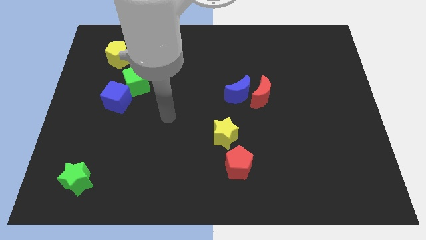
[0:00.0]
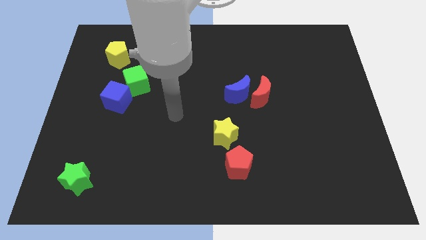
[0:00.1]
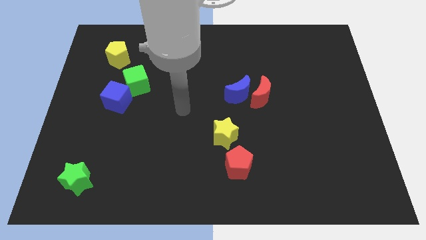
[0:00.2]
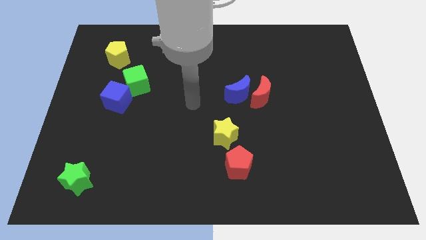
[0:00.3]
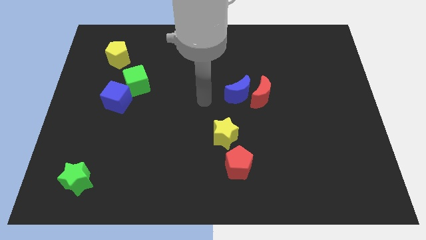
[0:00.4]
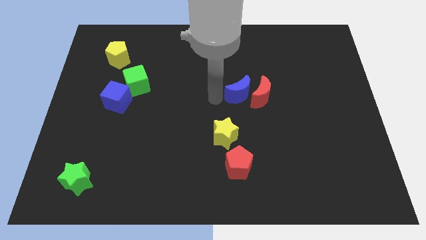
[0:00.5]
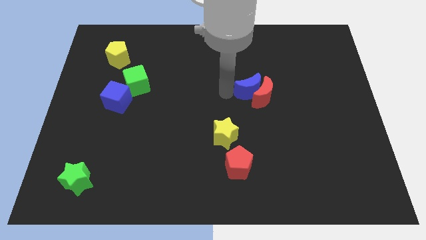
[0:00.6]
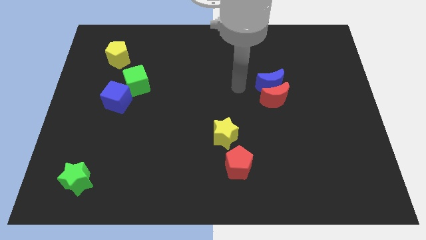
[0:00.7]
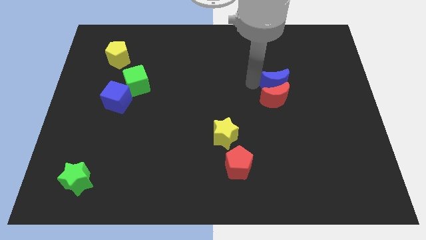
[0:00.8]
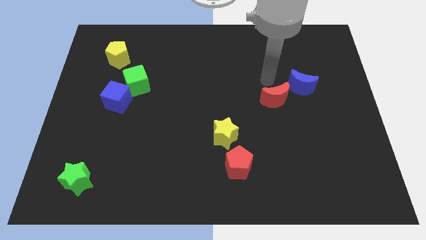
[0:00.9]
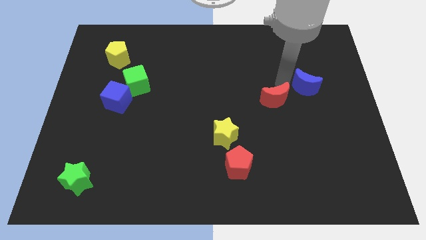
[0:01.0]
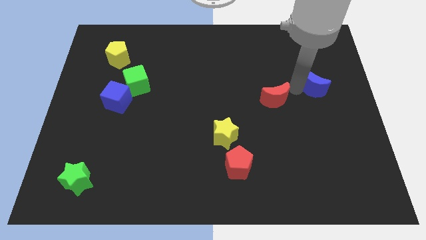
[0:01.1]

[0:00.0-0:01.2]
move the red moon away from the blue moon

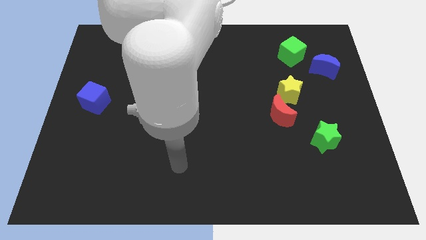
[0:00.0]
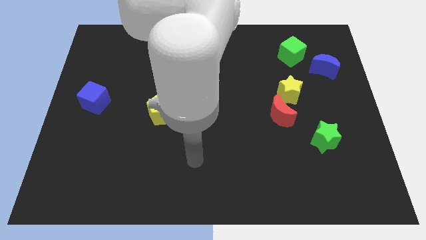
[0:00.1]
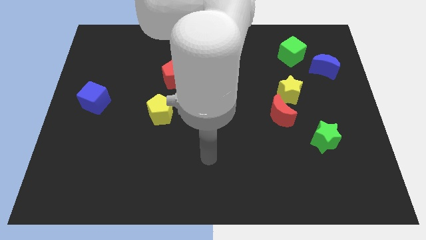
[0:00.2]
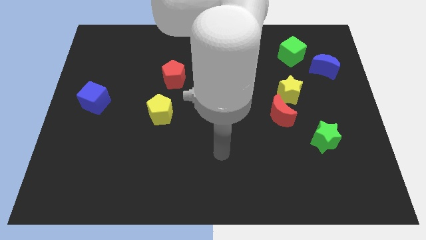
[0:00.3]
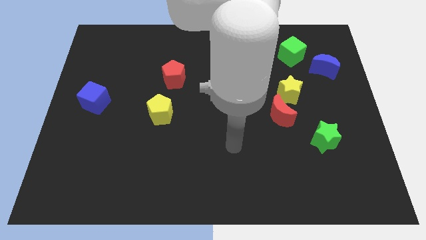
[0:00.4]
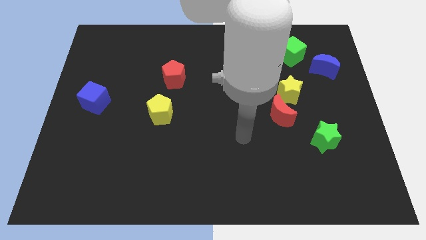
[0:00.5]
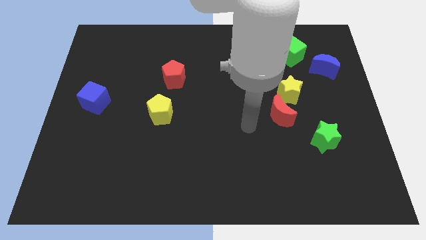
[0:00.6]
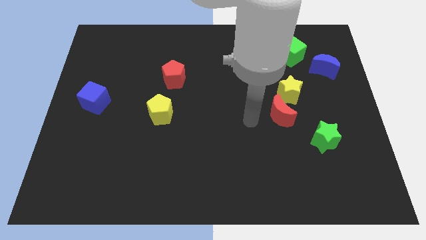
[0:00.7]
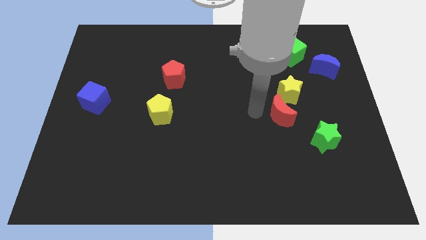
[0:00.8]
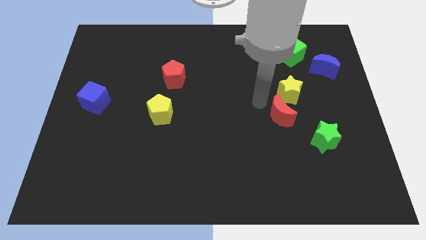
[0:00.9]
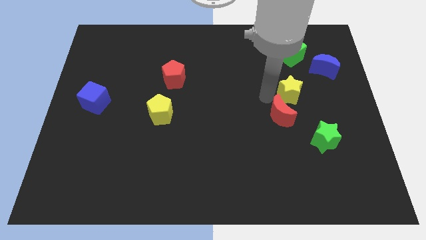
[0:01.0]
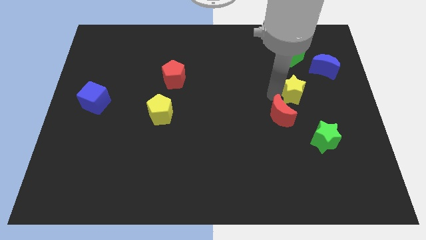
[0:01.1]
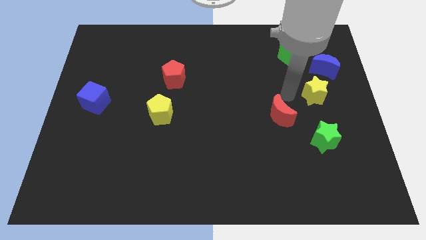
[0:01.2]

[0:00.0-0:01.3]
separate the red moon from the yellow star

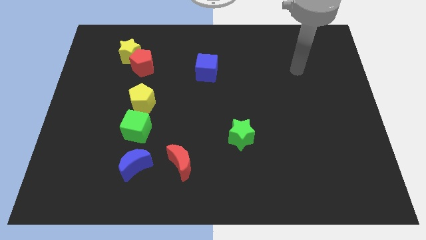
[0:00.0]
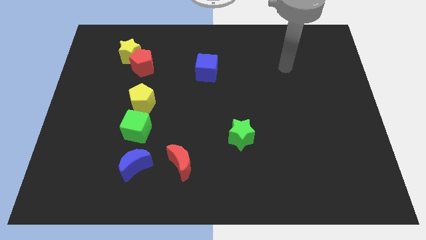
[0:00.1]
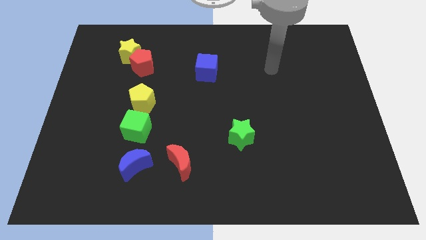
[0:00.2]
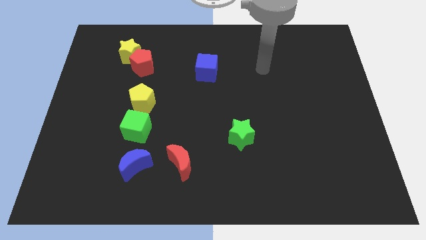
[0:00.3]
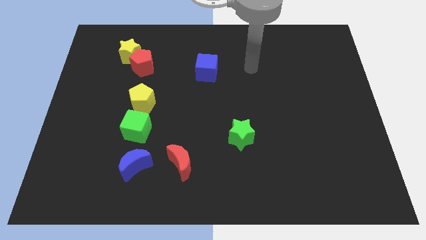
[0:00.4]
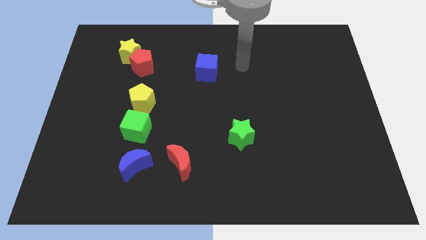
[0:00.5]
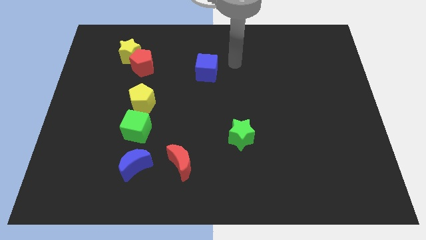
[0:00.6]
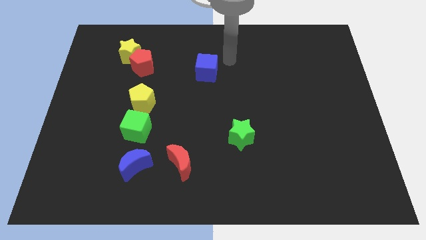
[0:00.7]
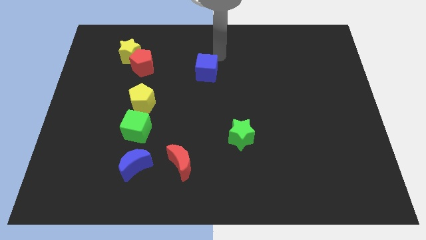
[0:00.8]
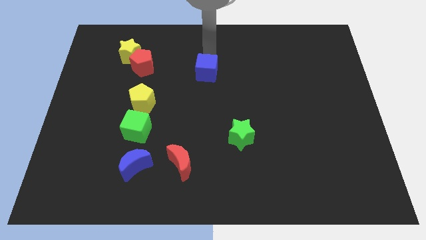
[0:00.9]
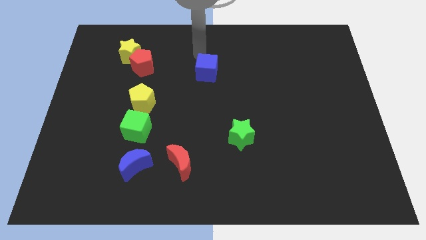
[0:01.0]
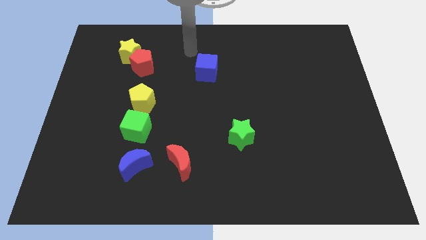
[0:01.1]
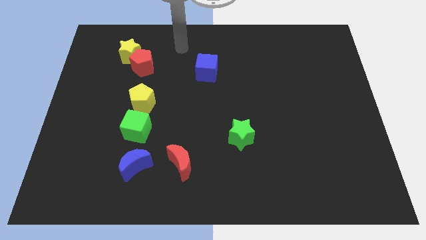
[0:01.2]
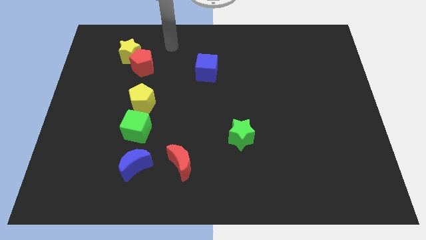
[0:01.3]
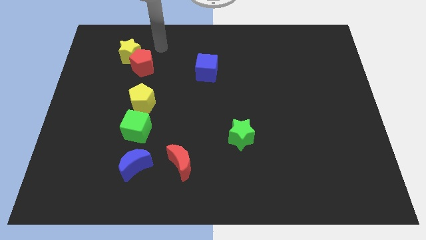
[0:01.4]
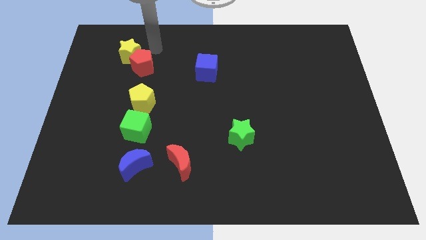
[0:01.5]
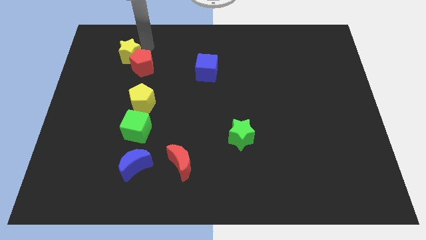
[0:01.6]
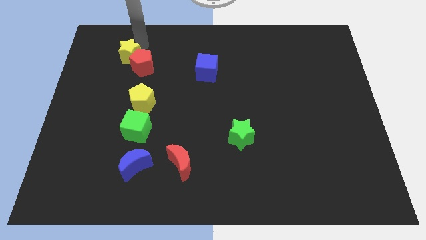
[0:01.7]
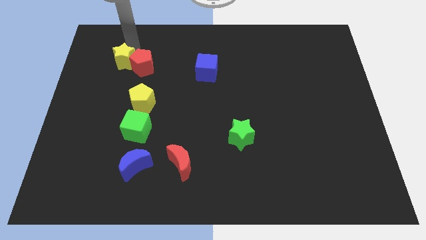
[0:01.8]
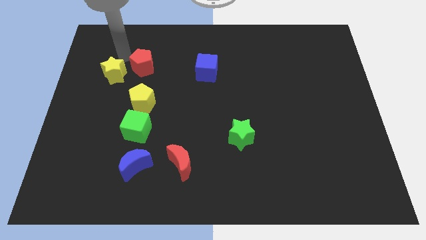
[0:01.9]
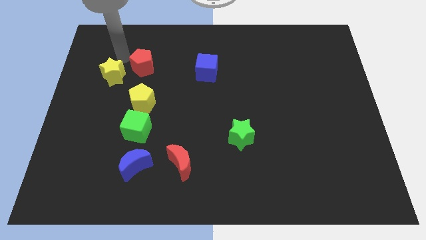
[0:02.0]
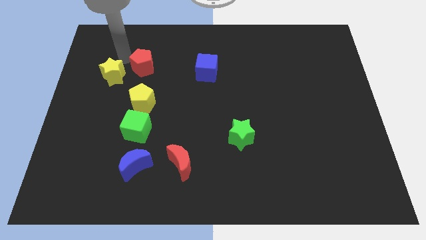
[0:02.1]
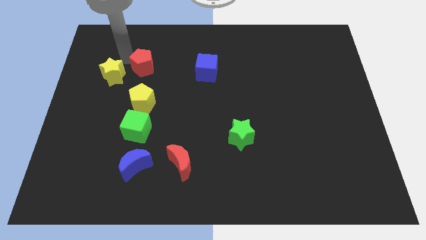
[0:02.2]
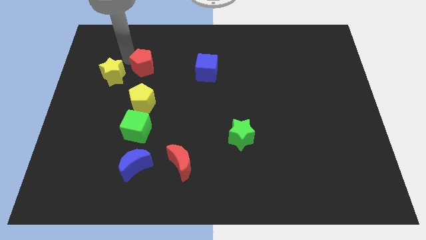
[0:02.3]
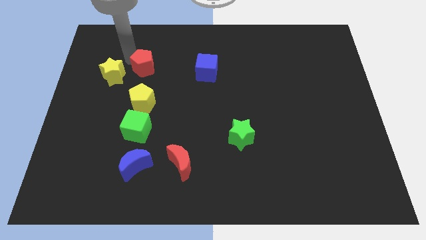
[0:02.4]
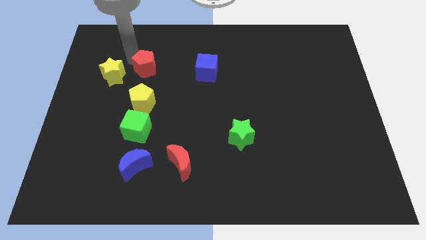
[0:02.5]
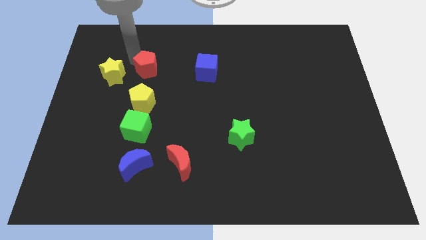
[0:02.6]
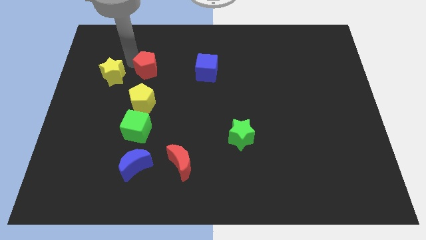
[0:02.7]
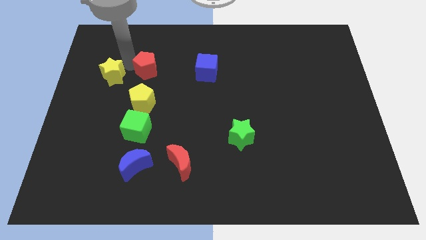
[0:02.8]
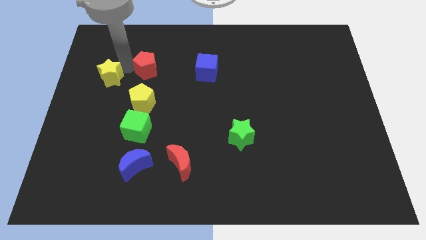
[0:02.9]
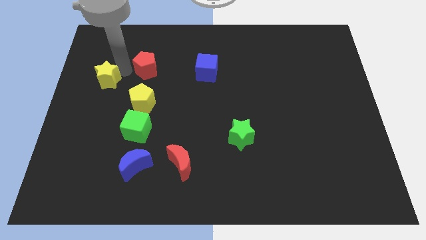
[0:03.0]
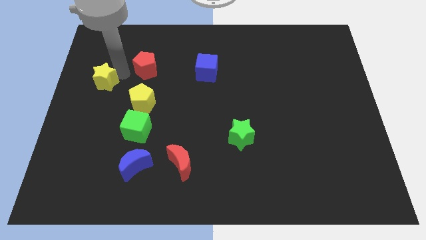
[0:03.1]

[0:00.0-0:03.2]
separate the red pentagon from the yellow star

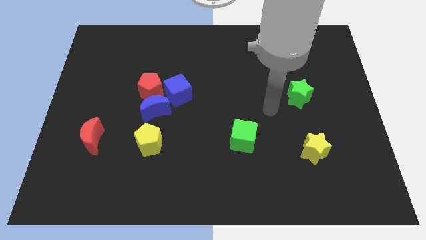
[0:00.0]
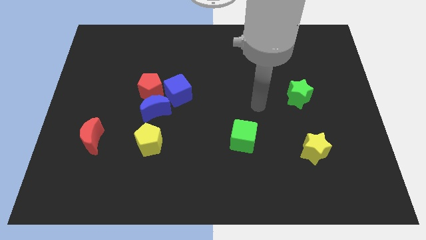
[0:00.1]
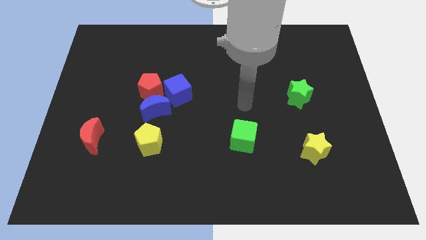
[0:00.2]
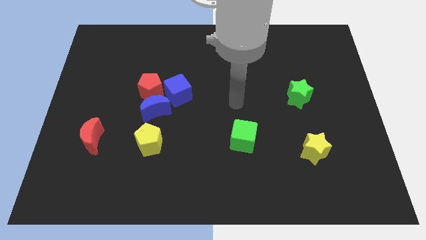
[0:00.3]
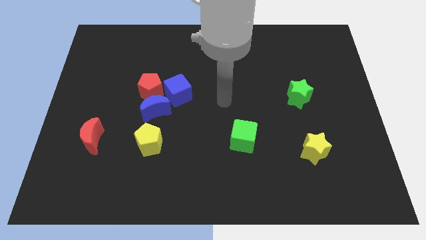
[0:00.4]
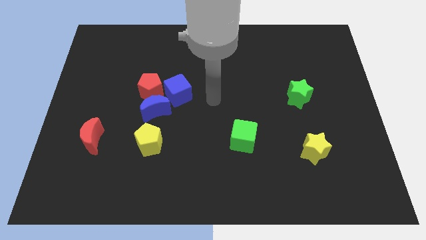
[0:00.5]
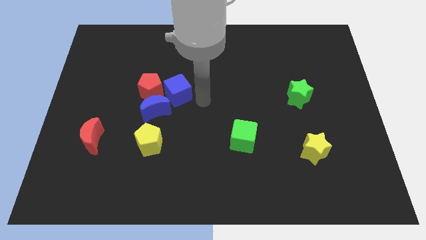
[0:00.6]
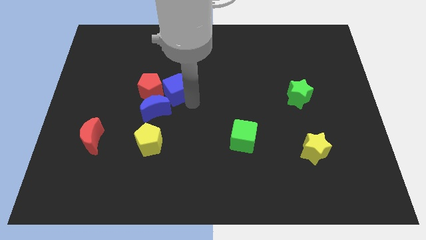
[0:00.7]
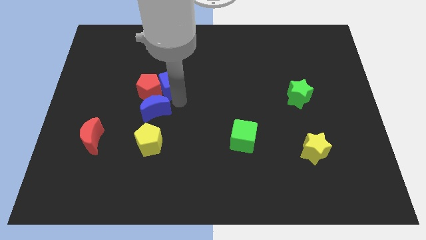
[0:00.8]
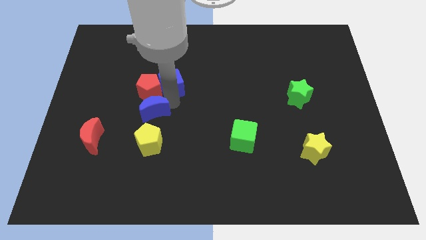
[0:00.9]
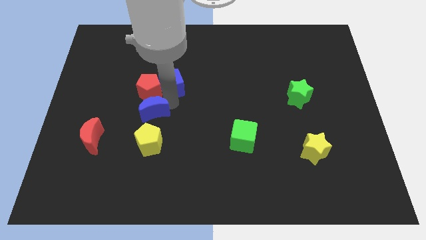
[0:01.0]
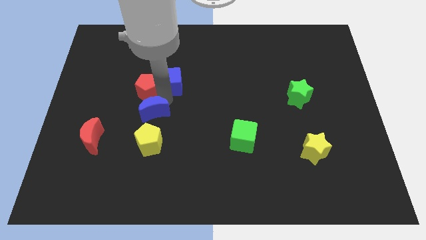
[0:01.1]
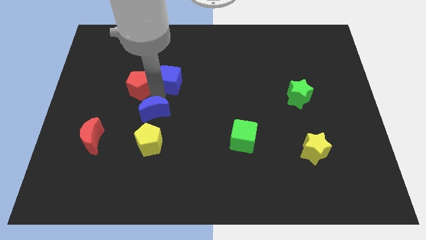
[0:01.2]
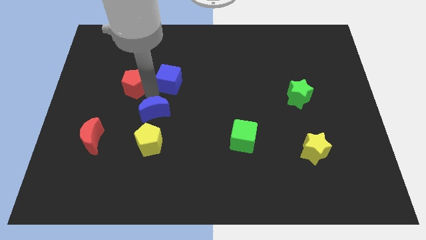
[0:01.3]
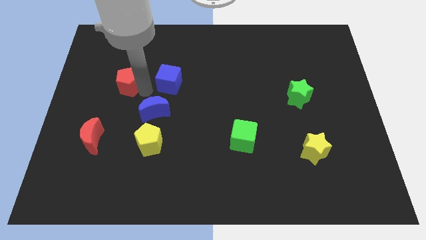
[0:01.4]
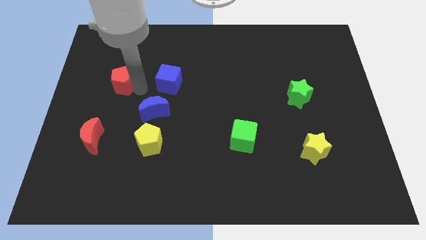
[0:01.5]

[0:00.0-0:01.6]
separate the red pentagon from the blue moon and blue cube

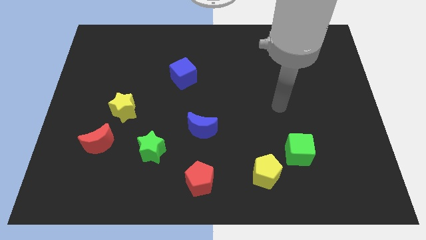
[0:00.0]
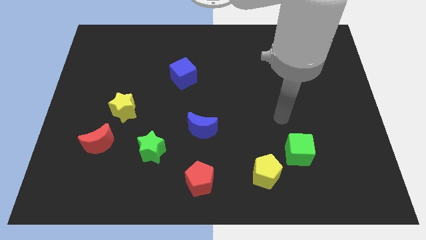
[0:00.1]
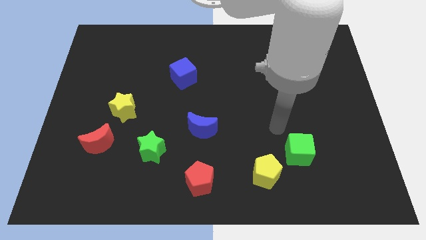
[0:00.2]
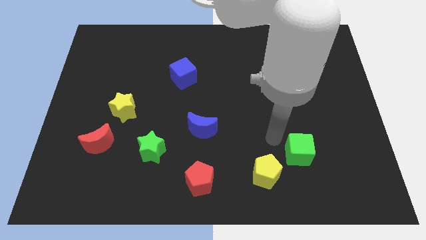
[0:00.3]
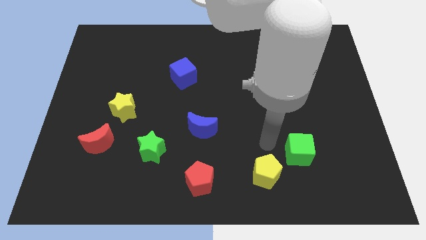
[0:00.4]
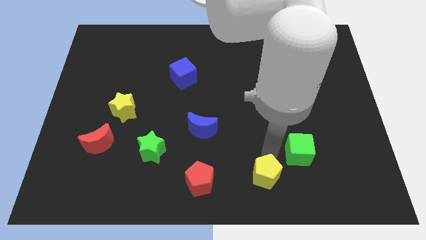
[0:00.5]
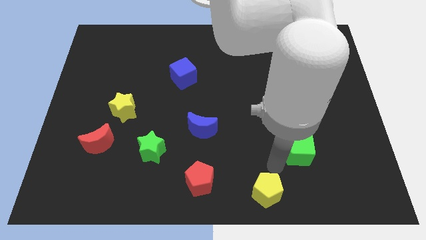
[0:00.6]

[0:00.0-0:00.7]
pull the green cube apart from the yellow pentagon

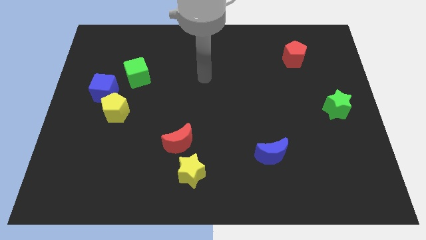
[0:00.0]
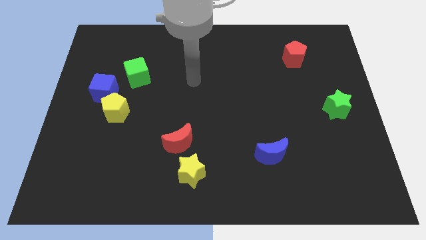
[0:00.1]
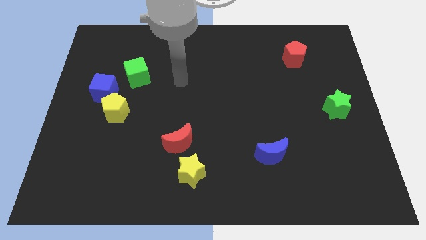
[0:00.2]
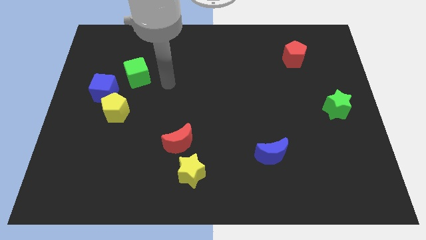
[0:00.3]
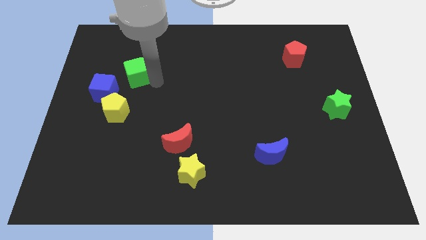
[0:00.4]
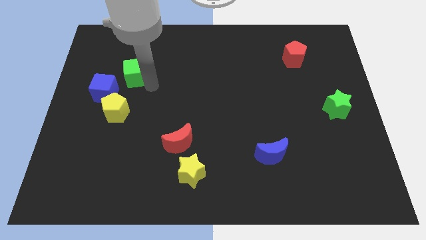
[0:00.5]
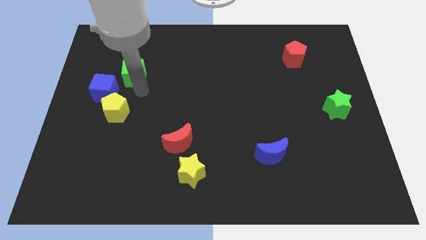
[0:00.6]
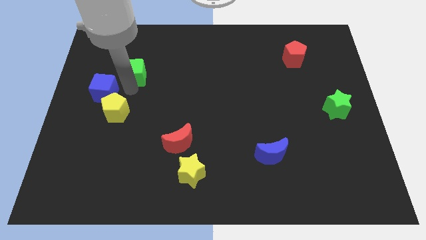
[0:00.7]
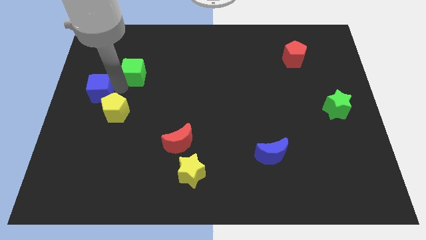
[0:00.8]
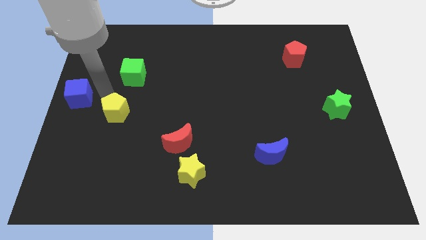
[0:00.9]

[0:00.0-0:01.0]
pull the yellow pentagon apart from the blue cube

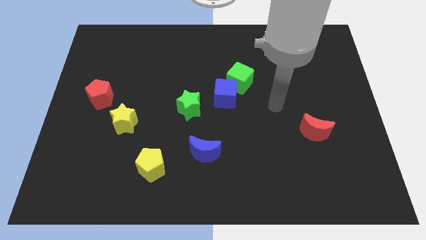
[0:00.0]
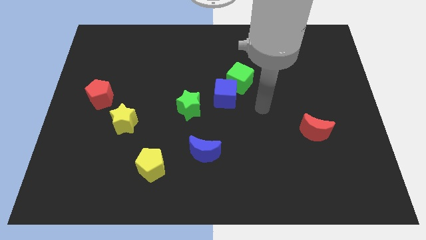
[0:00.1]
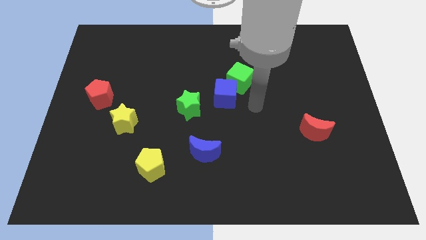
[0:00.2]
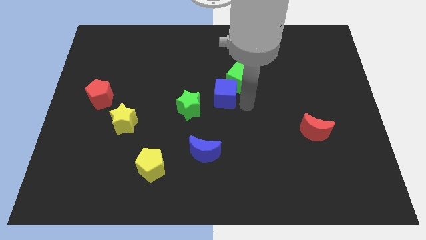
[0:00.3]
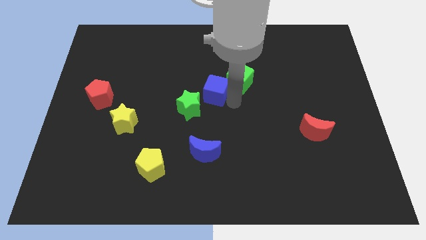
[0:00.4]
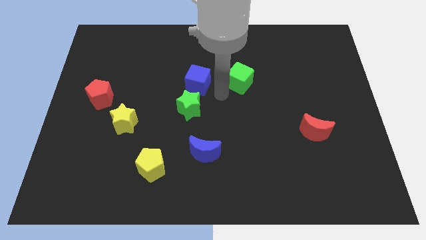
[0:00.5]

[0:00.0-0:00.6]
separate the green cube from the blue cube
